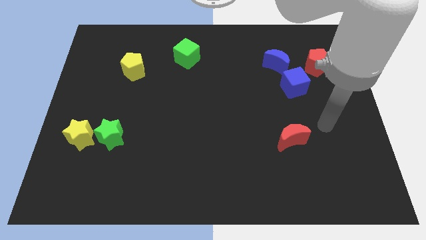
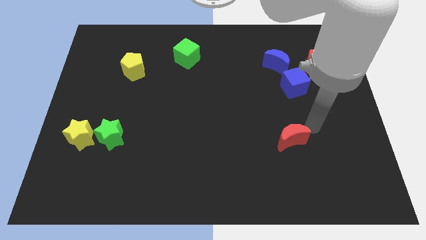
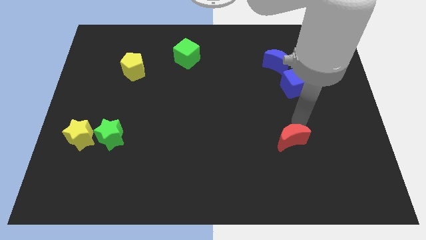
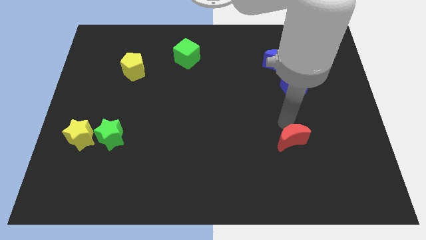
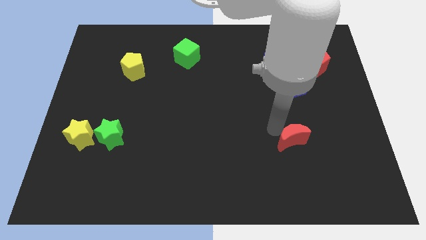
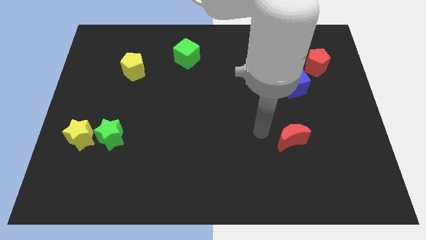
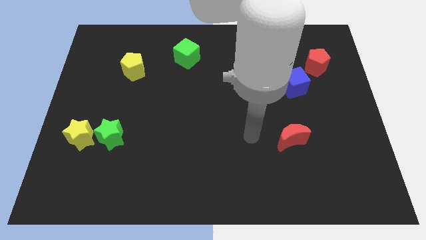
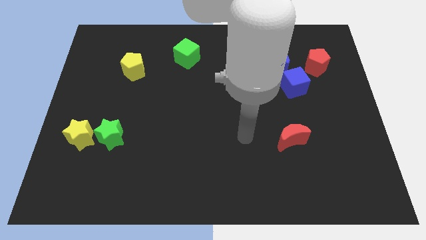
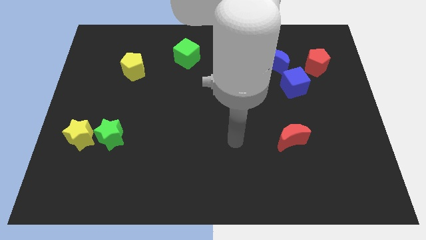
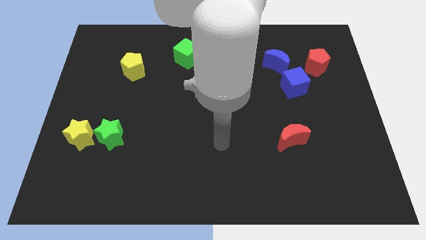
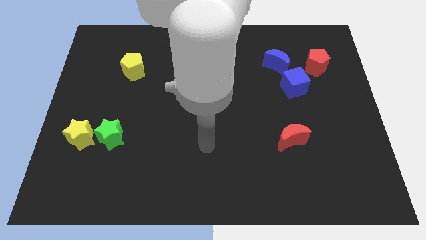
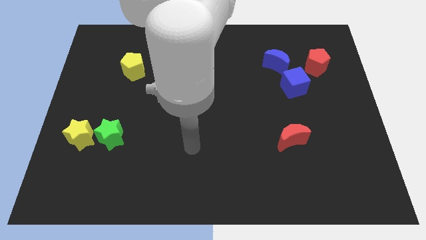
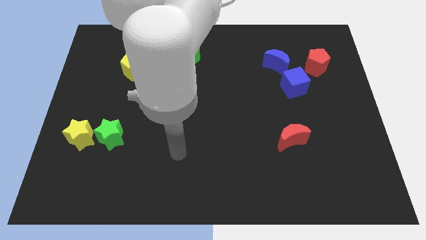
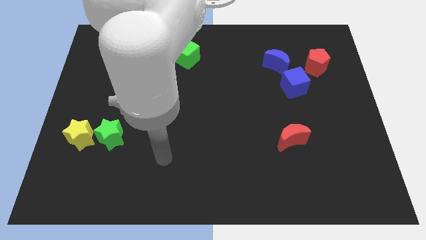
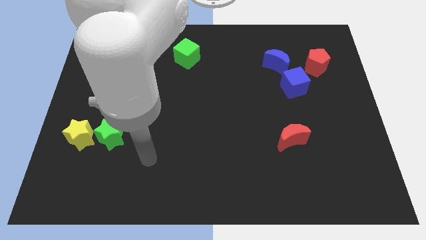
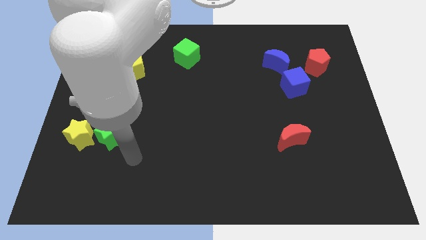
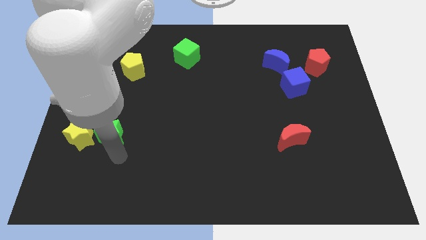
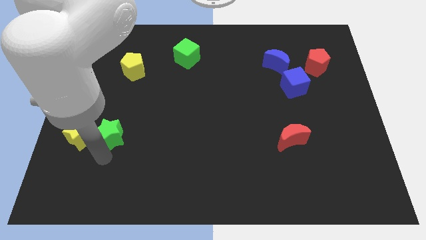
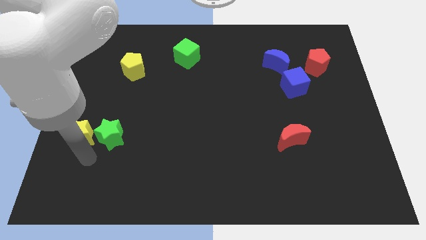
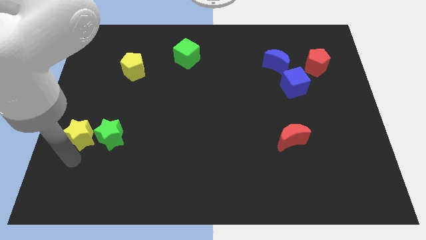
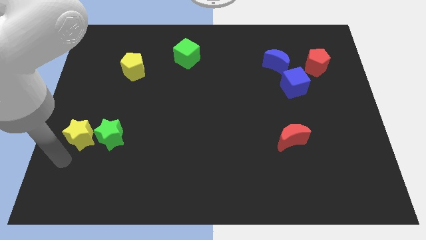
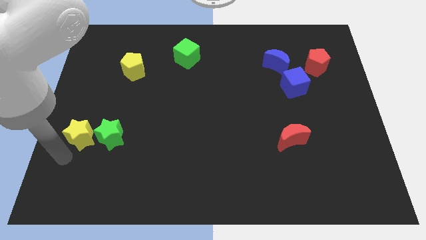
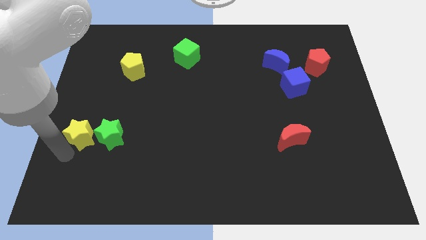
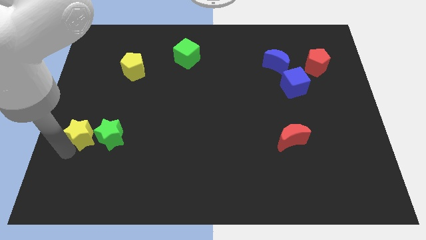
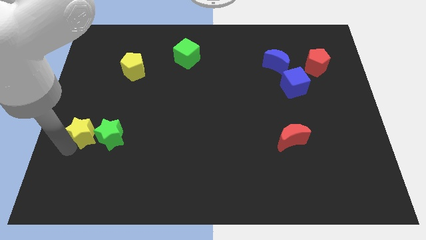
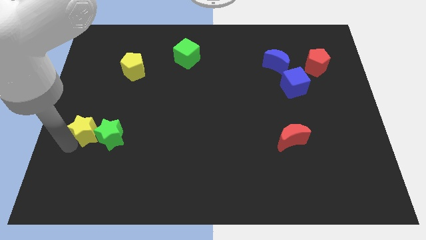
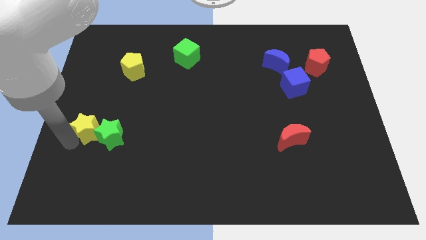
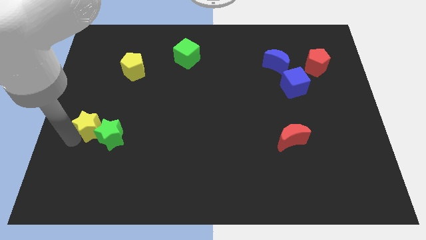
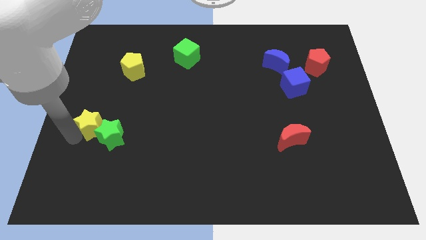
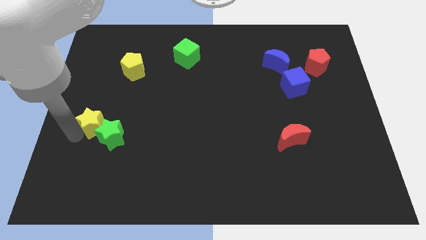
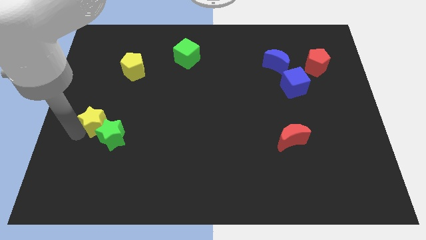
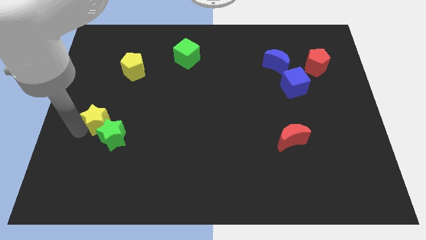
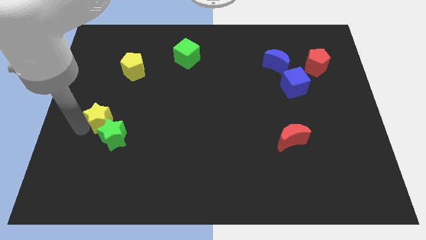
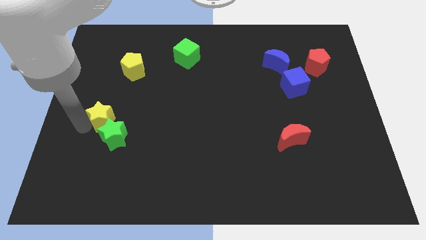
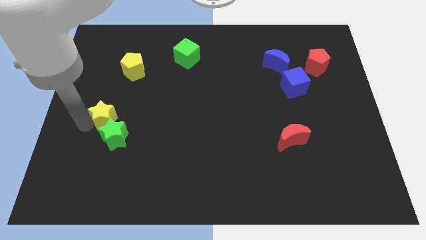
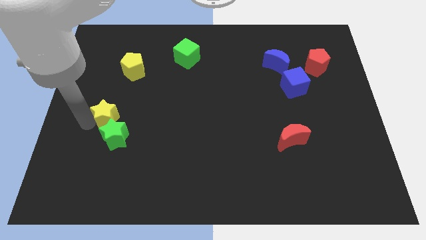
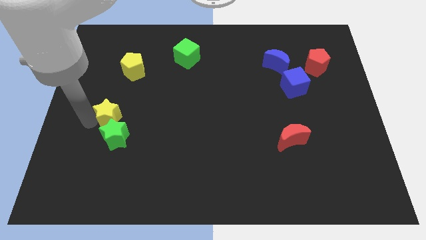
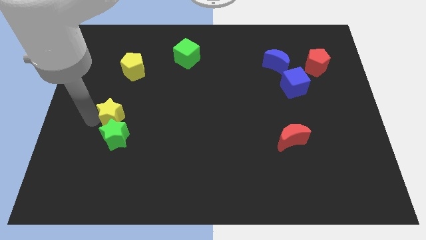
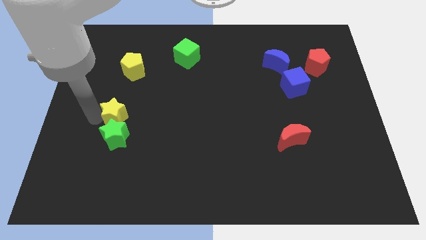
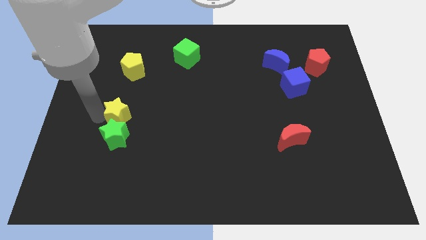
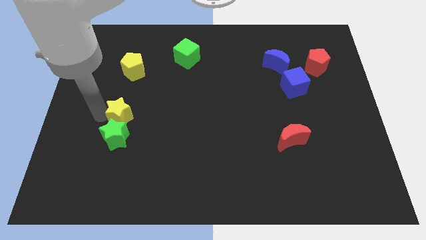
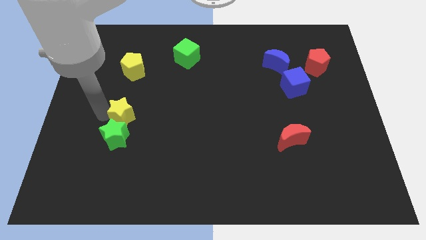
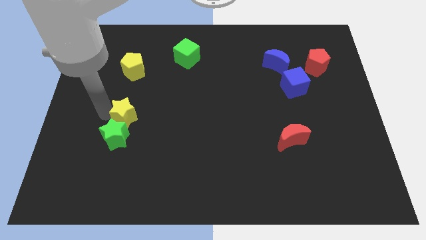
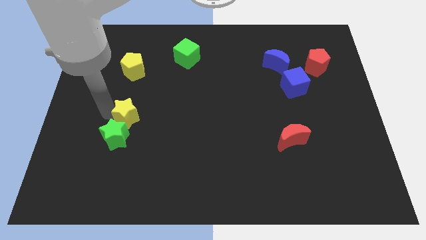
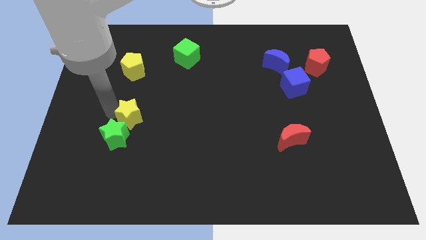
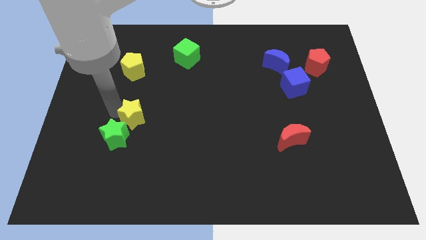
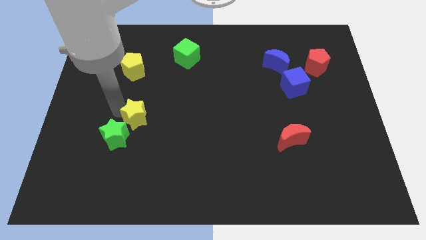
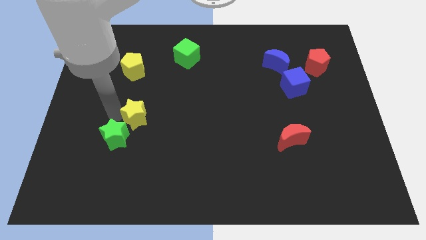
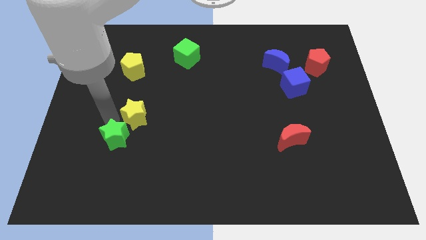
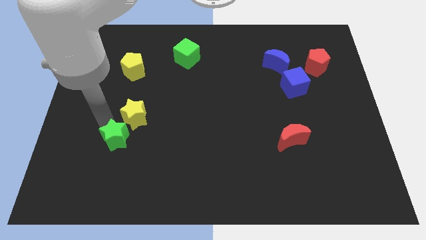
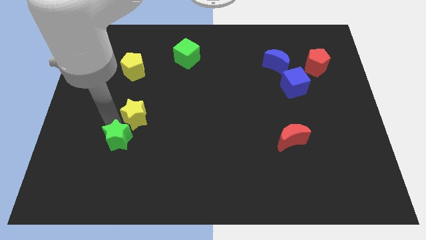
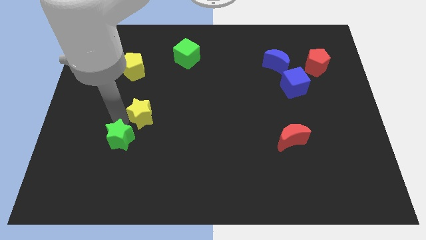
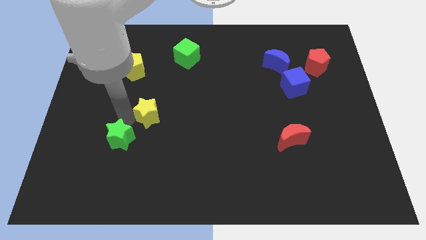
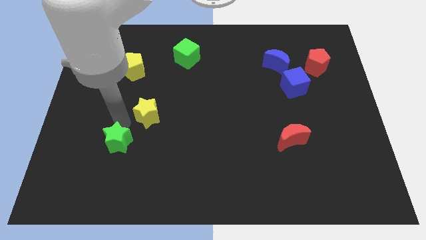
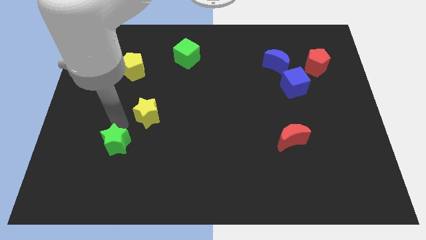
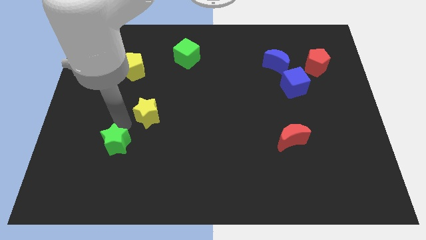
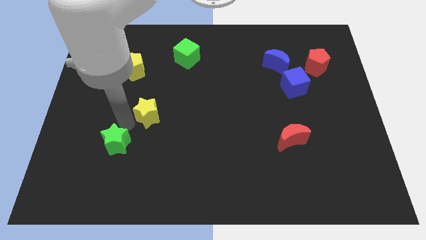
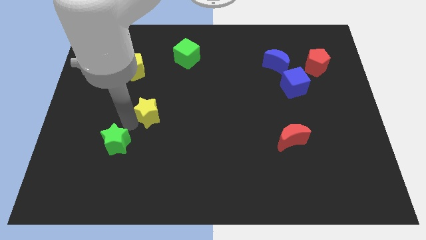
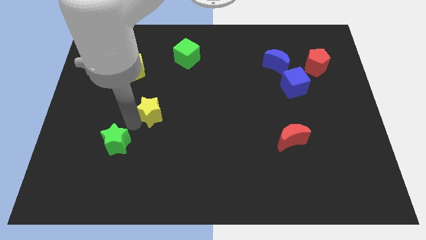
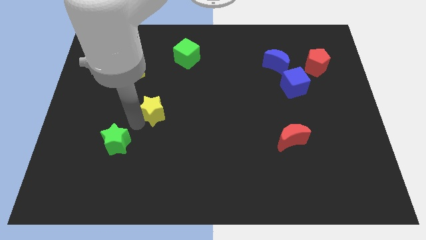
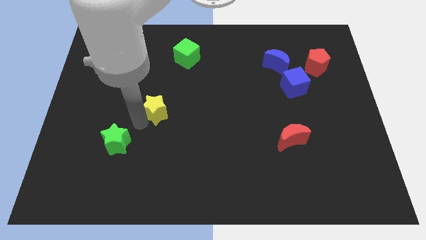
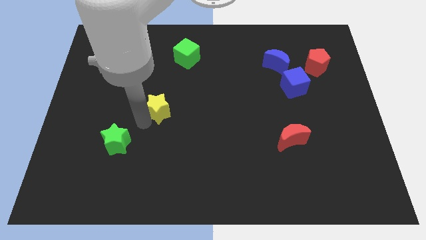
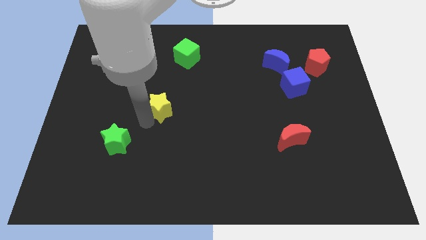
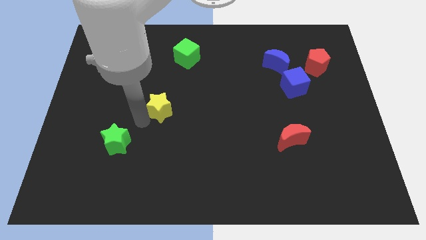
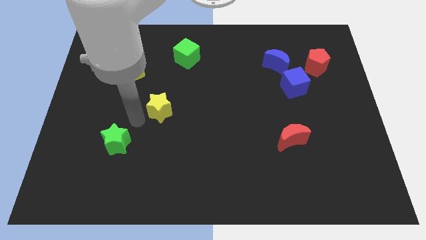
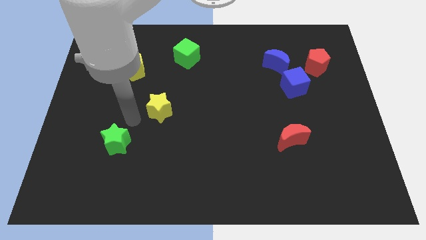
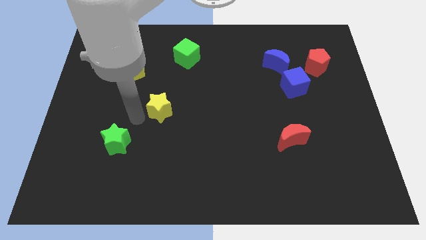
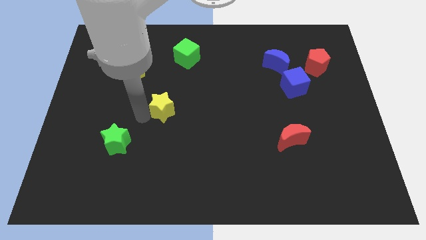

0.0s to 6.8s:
slide the yellow star to the middle of the board
